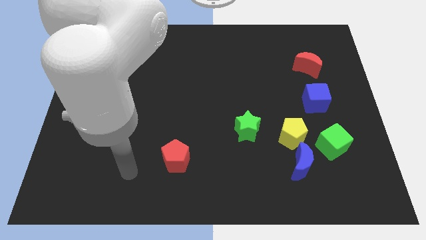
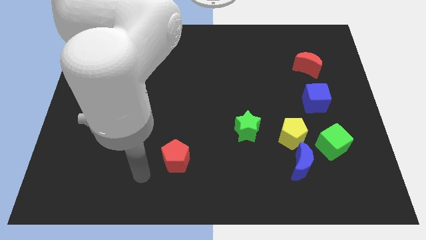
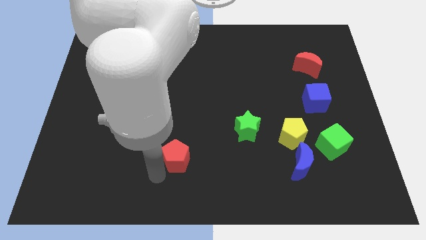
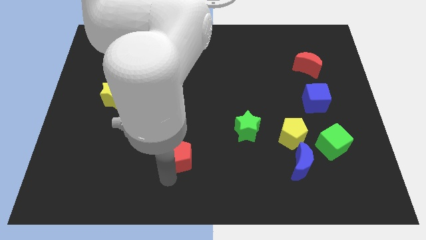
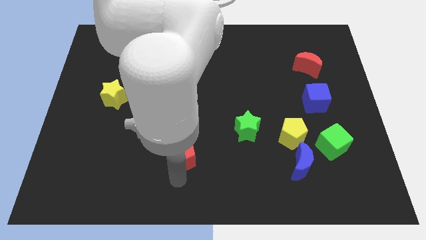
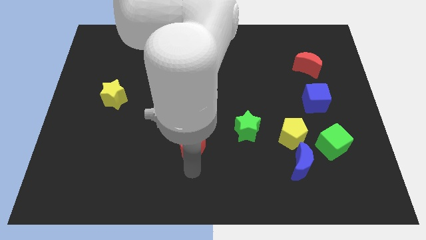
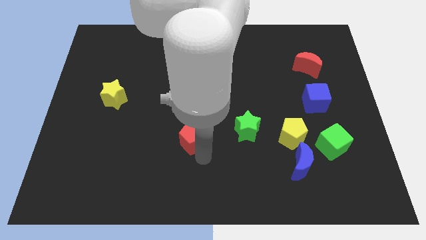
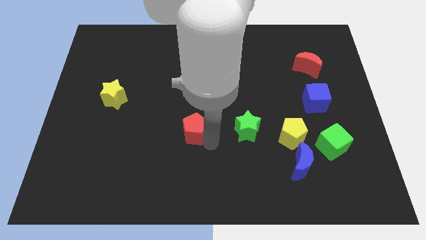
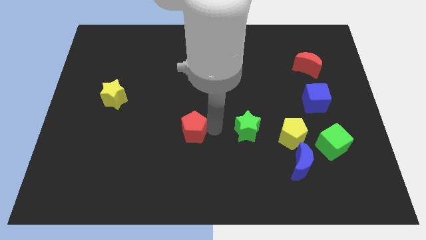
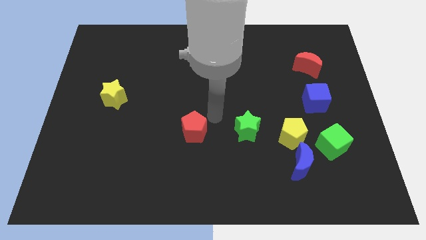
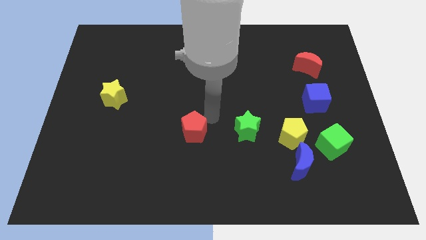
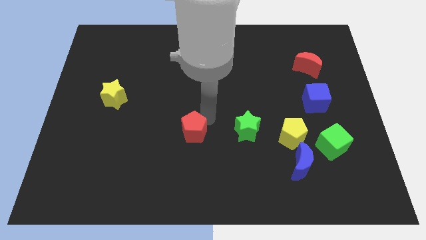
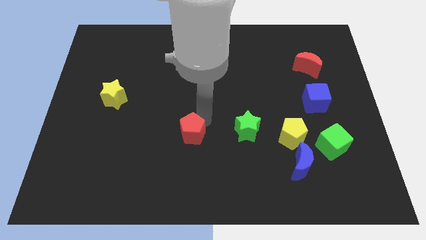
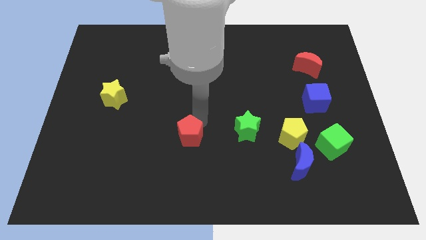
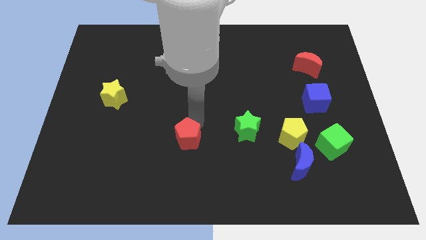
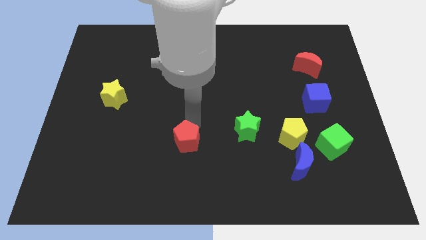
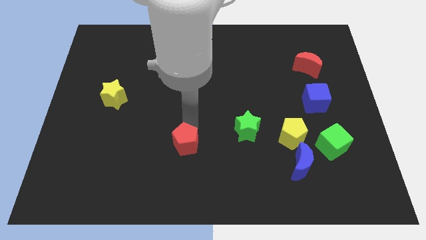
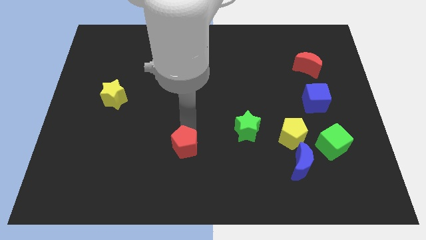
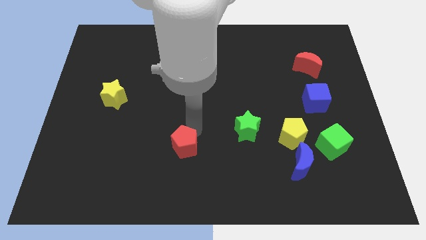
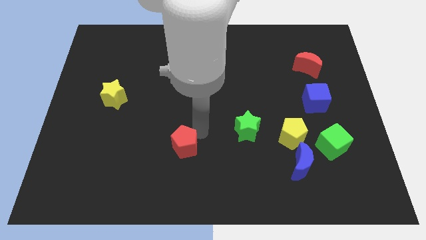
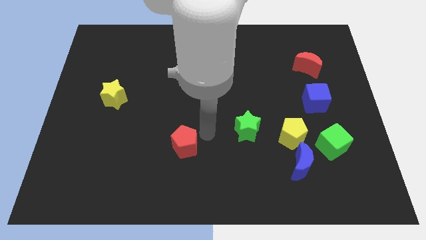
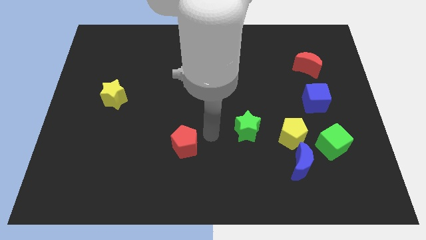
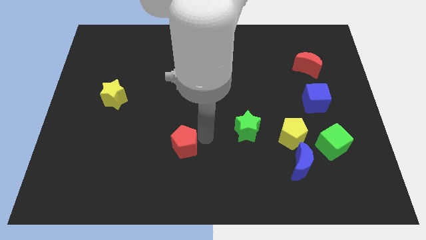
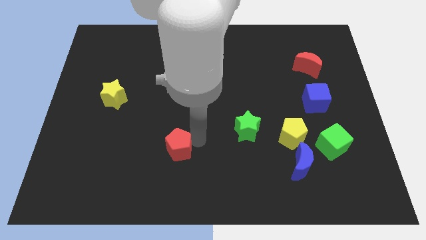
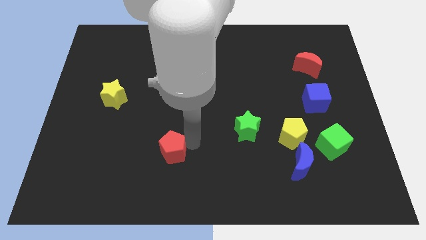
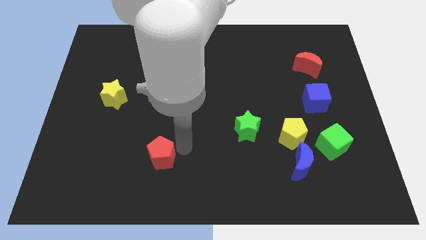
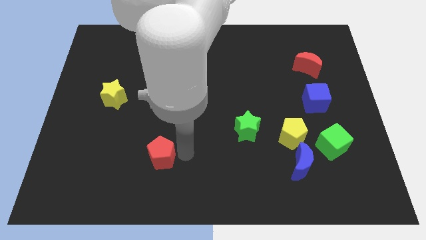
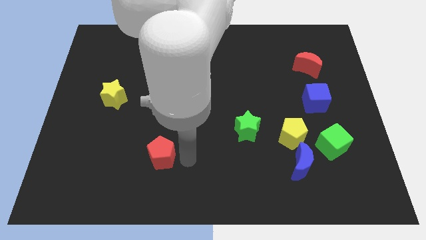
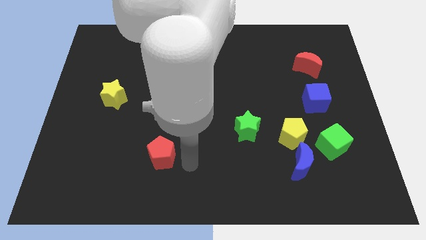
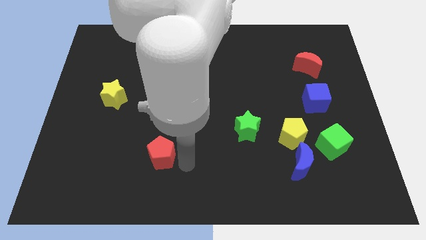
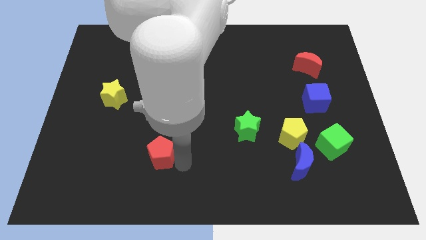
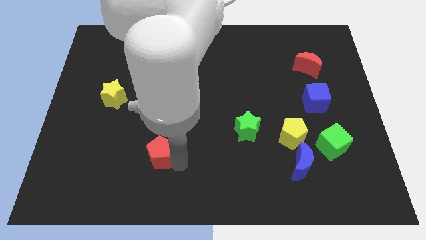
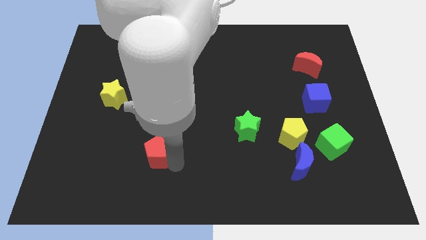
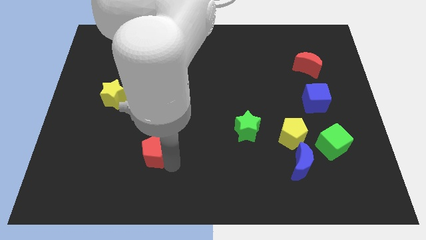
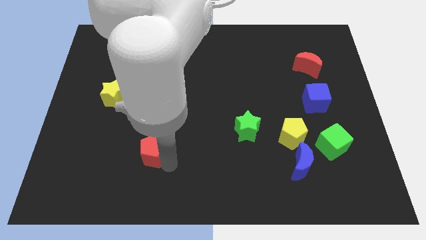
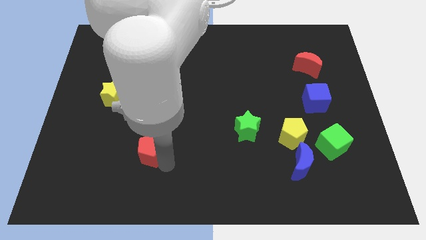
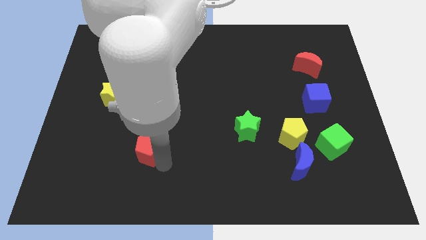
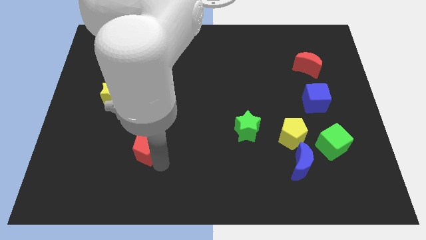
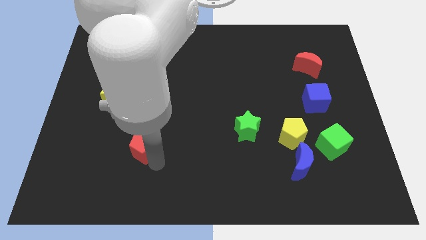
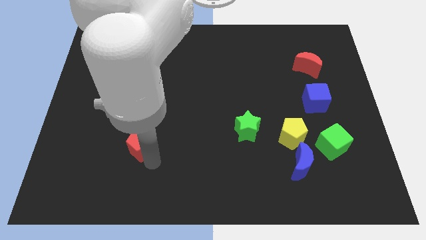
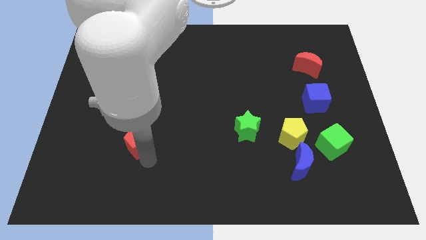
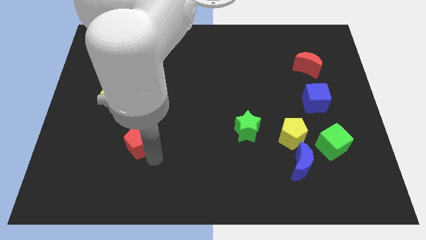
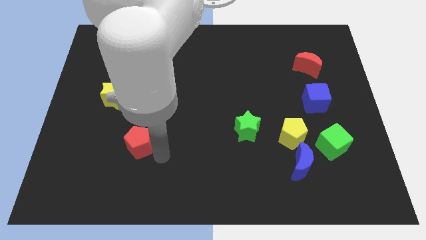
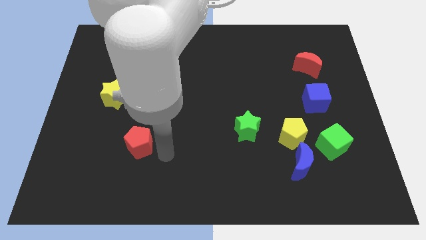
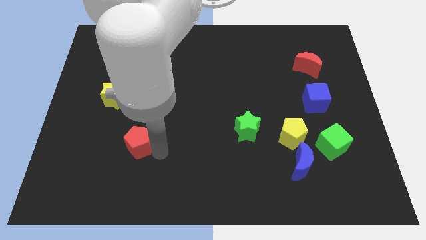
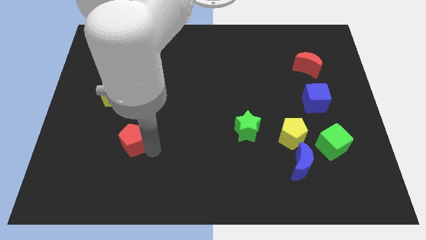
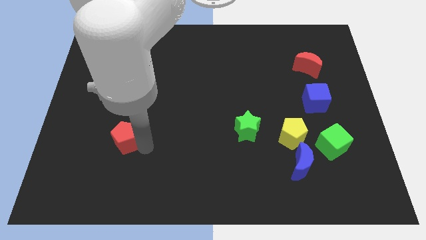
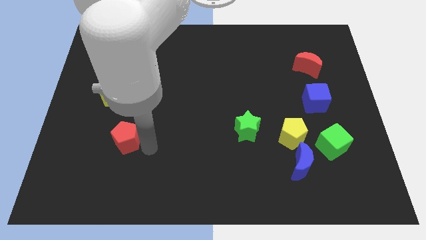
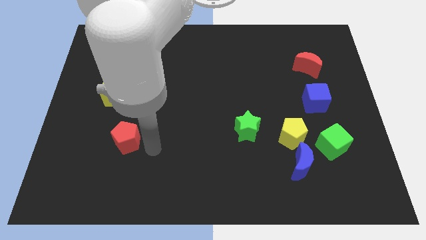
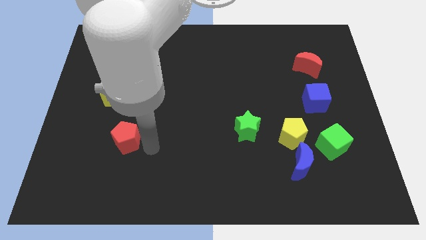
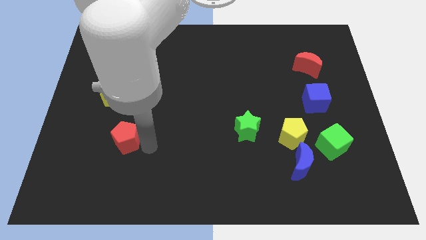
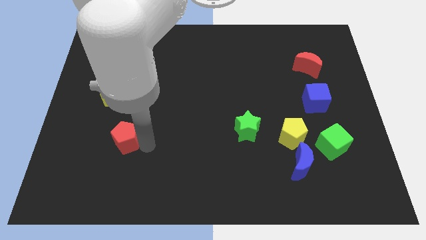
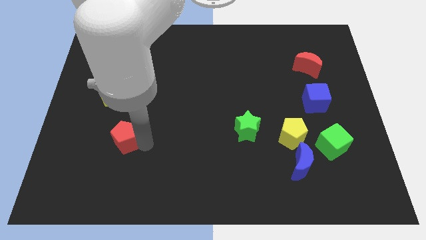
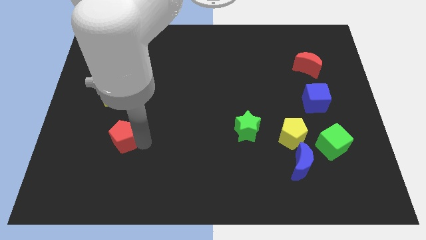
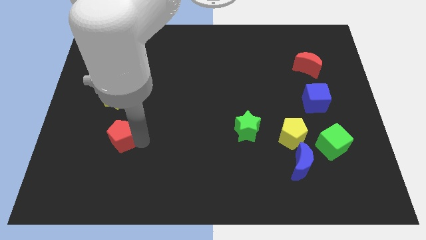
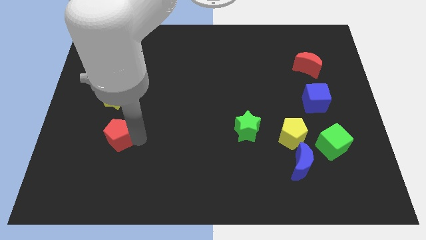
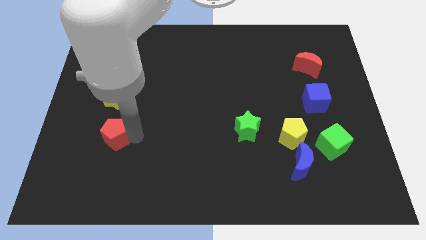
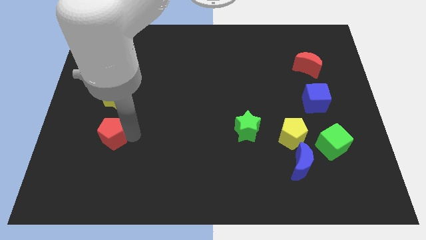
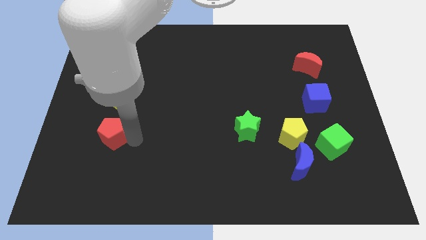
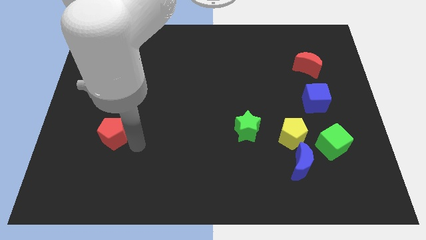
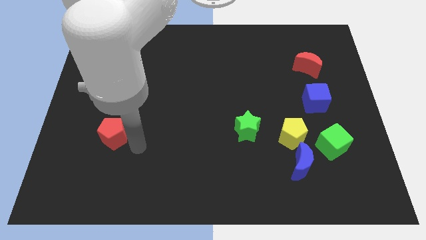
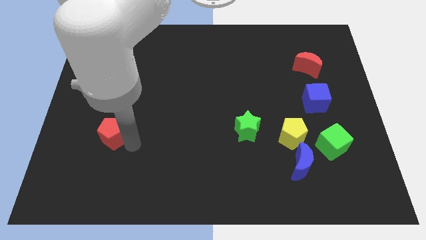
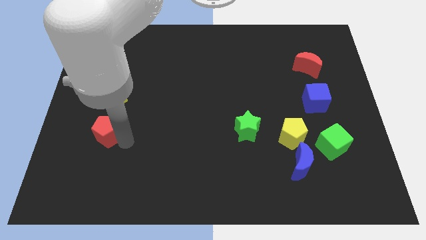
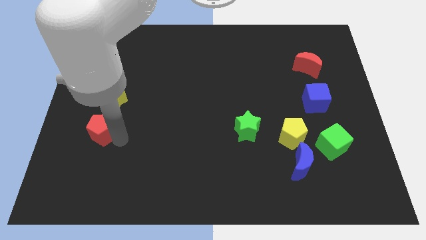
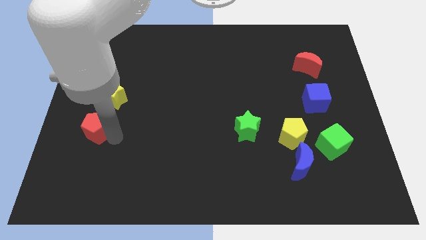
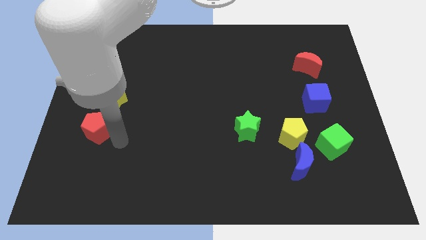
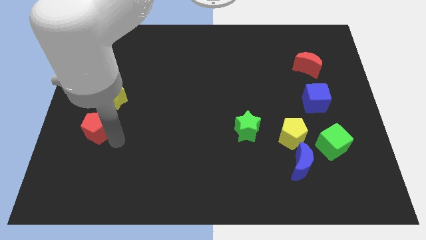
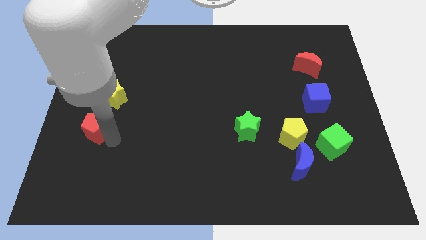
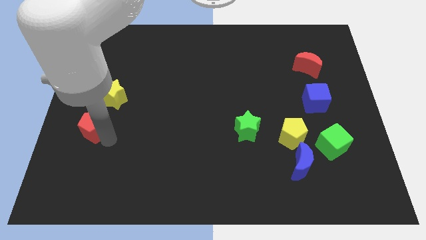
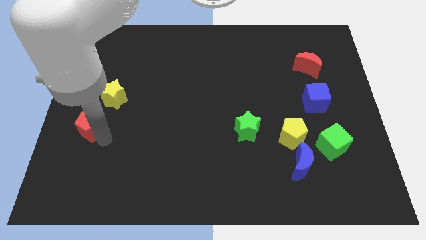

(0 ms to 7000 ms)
slide the red pentagon to the left side of the board
